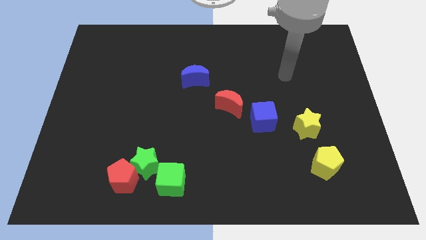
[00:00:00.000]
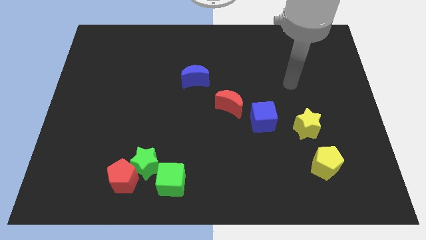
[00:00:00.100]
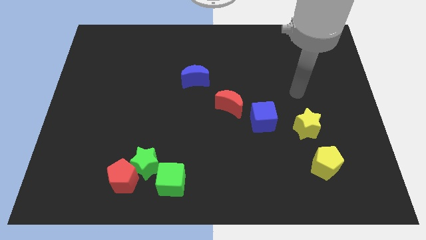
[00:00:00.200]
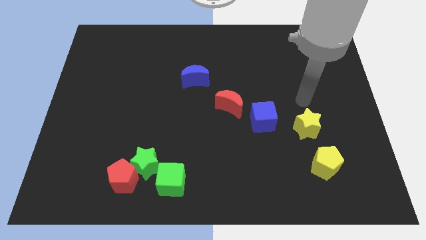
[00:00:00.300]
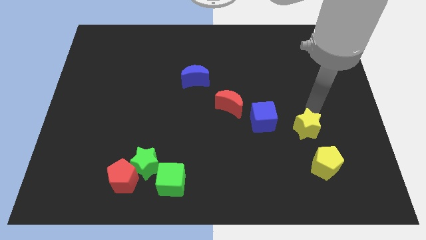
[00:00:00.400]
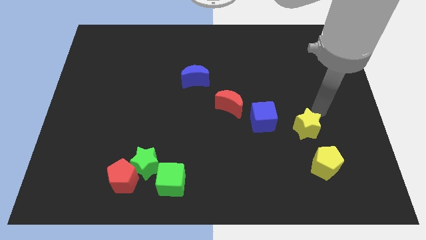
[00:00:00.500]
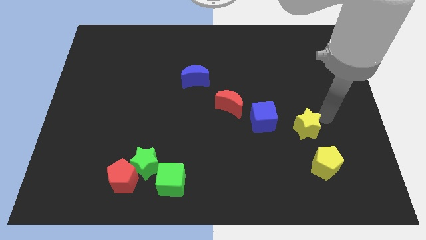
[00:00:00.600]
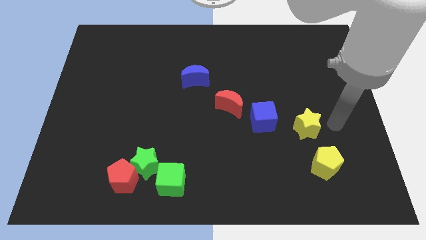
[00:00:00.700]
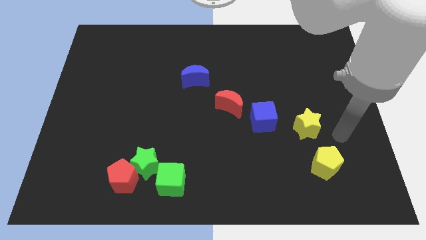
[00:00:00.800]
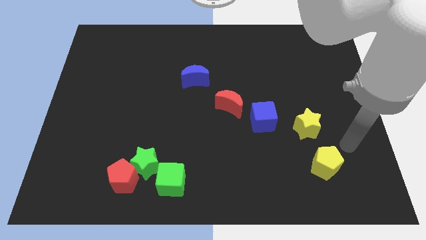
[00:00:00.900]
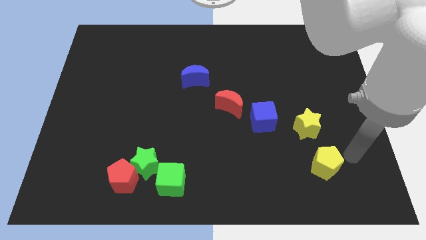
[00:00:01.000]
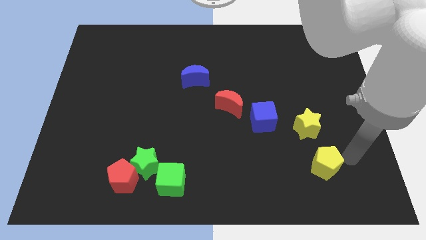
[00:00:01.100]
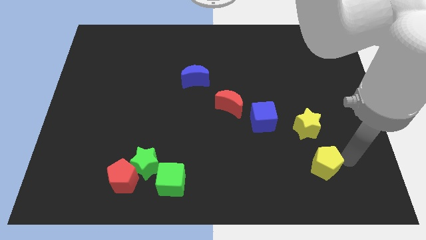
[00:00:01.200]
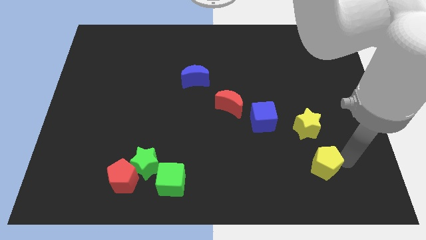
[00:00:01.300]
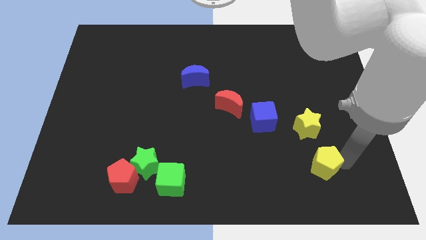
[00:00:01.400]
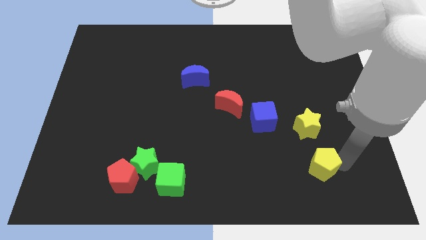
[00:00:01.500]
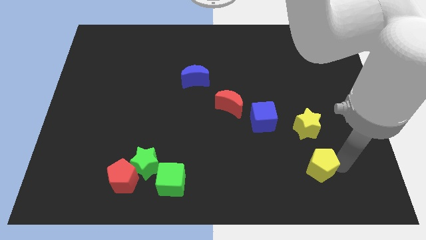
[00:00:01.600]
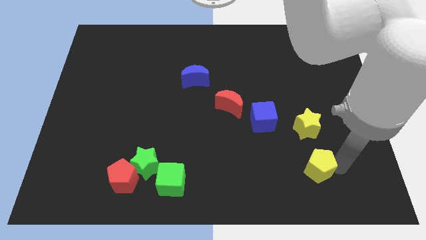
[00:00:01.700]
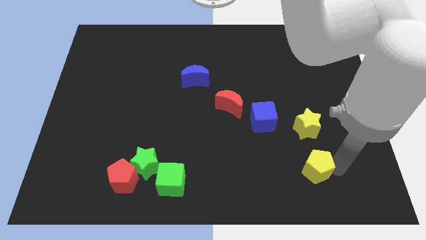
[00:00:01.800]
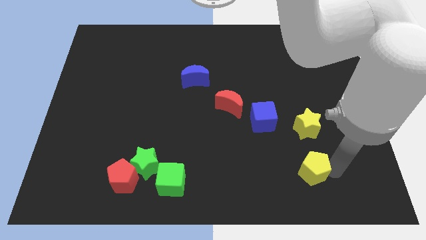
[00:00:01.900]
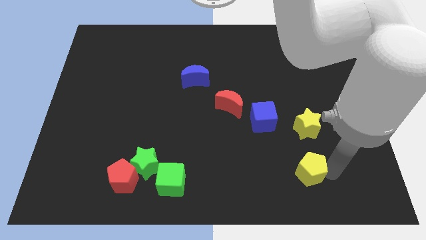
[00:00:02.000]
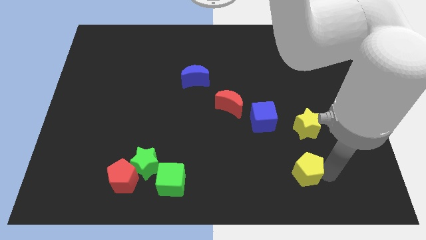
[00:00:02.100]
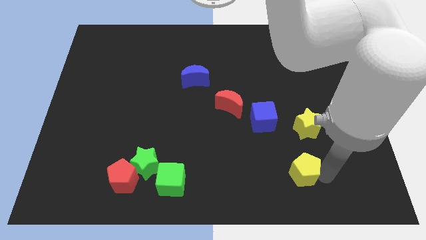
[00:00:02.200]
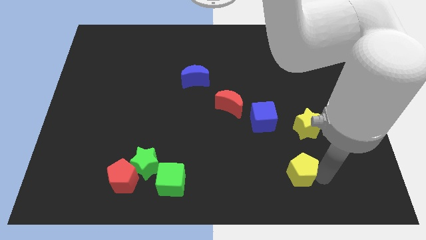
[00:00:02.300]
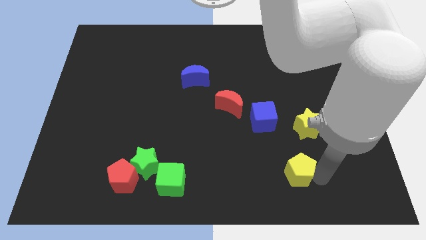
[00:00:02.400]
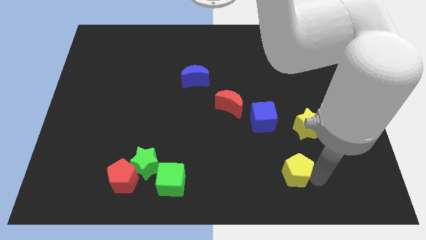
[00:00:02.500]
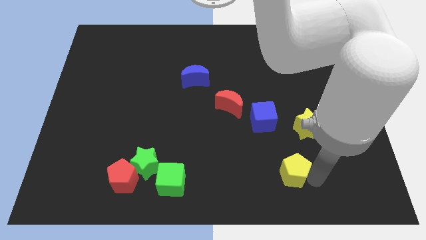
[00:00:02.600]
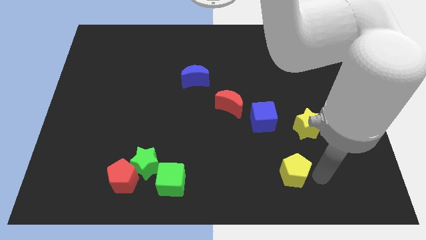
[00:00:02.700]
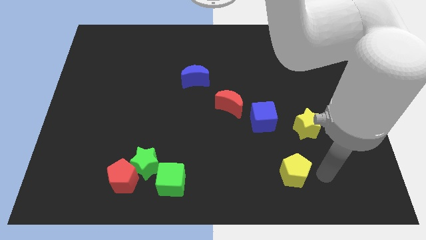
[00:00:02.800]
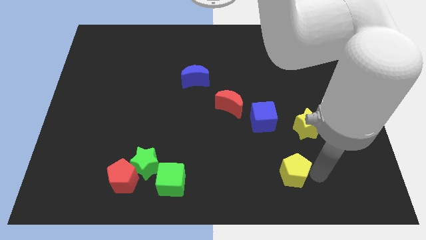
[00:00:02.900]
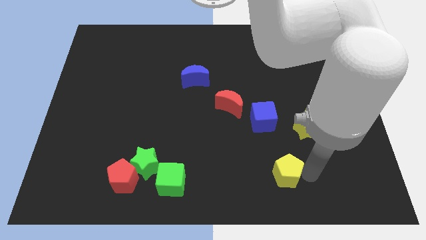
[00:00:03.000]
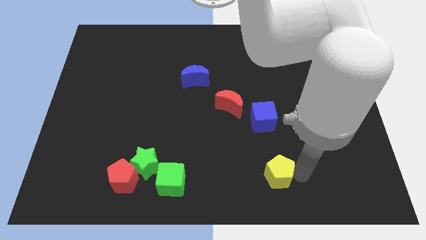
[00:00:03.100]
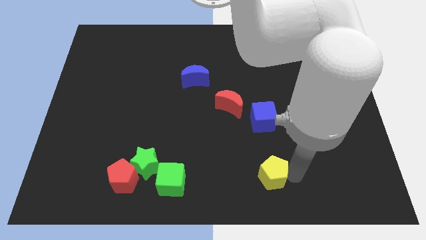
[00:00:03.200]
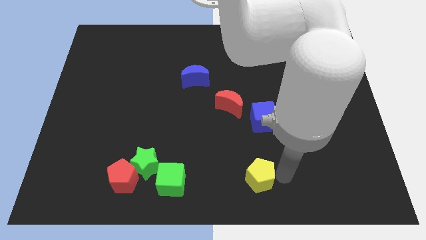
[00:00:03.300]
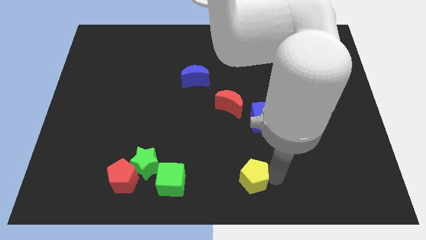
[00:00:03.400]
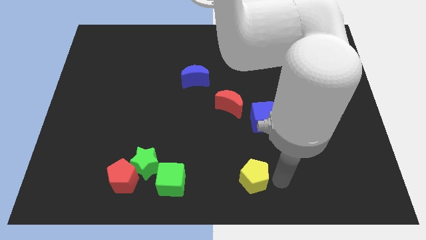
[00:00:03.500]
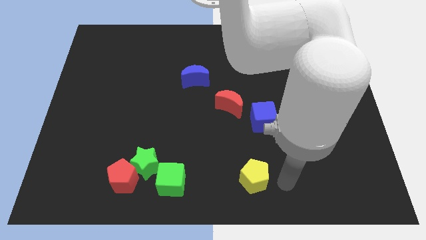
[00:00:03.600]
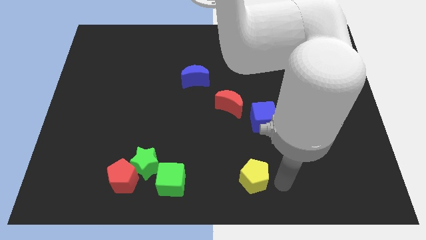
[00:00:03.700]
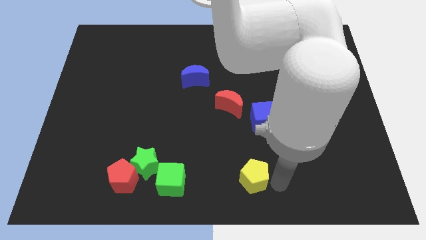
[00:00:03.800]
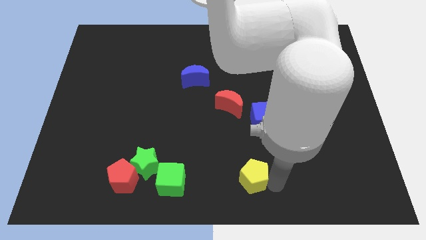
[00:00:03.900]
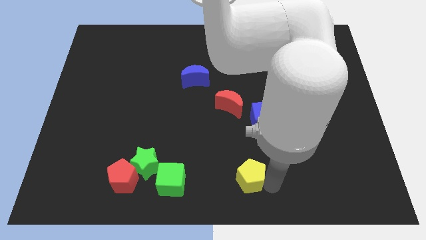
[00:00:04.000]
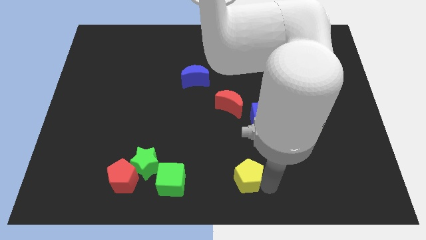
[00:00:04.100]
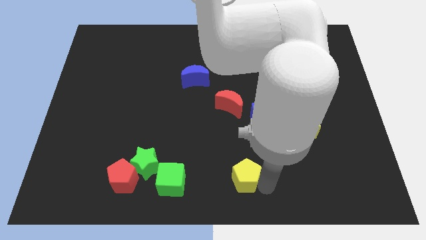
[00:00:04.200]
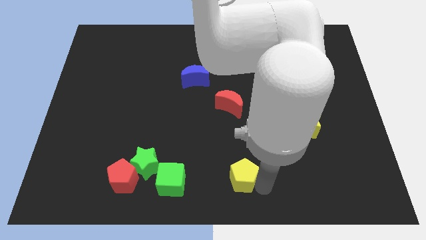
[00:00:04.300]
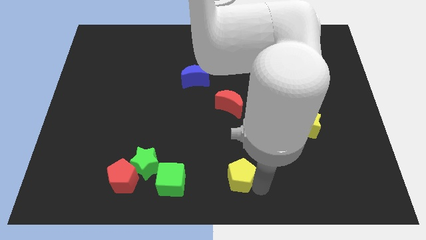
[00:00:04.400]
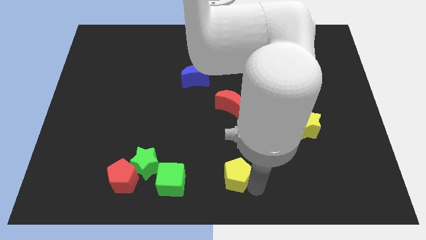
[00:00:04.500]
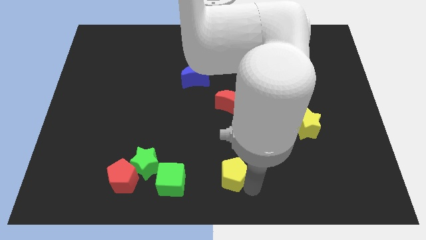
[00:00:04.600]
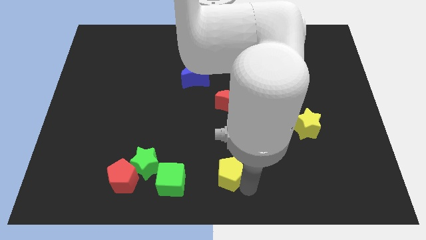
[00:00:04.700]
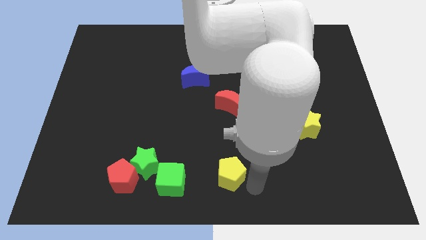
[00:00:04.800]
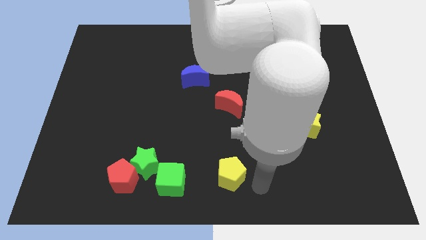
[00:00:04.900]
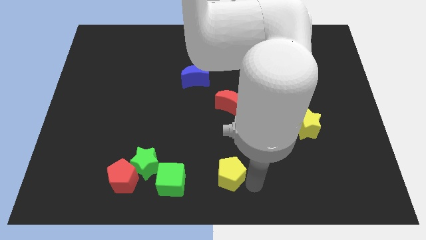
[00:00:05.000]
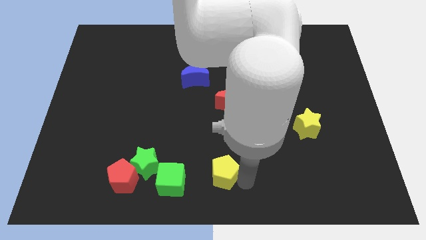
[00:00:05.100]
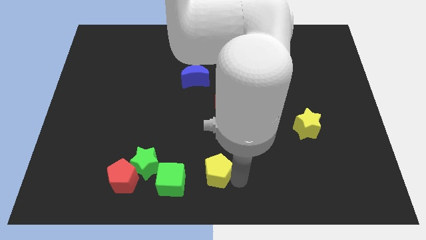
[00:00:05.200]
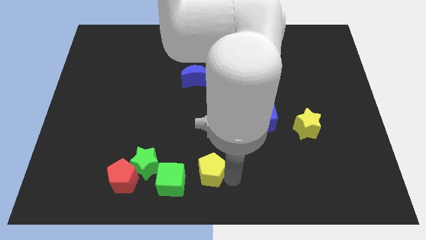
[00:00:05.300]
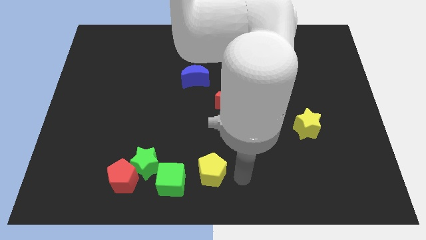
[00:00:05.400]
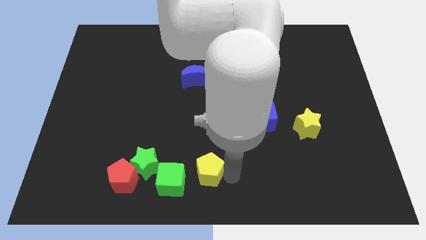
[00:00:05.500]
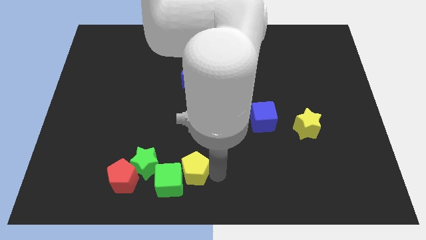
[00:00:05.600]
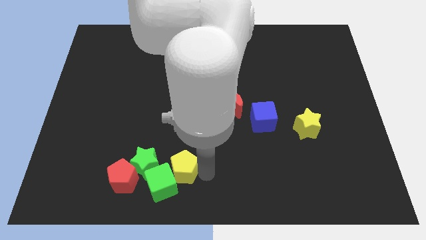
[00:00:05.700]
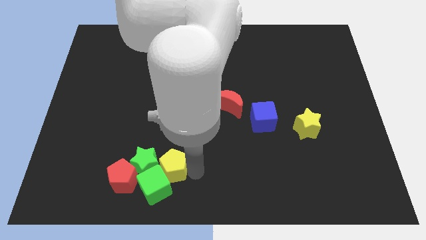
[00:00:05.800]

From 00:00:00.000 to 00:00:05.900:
slide the yellow pentagon next to the green star

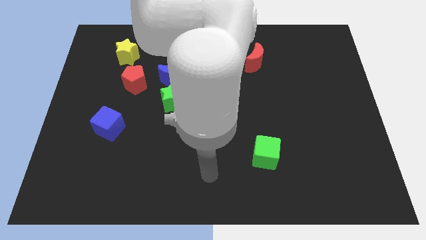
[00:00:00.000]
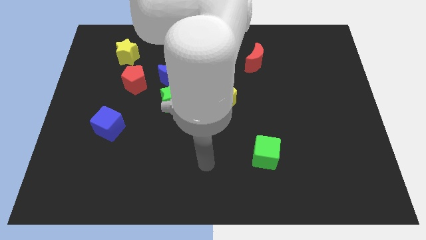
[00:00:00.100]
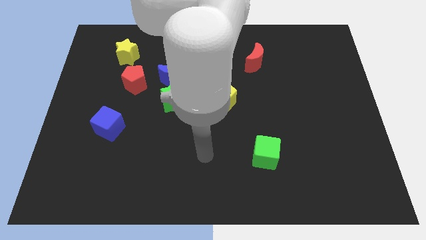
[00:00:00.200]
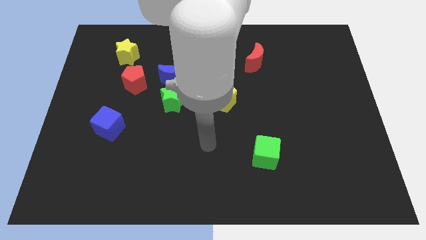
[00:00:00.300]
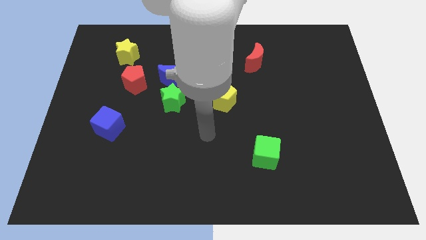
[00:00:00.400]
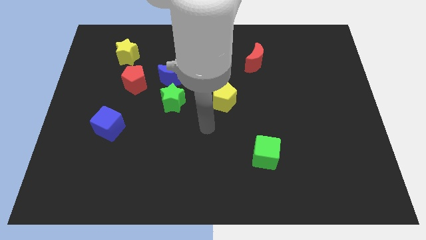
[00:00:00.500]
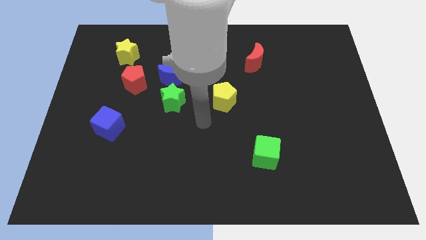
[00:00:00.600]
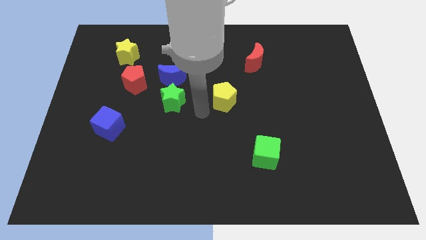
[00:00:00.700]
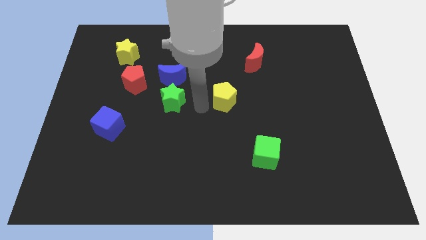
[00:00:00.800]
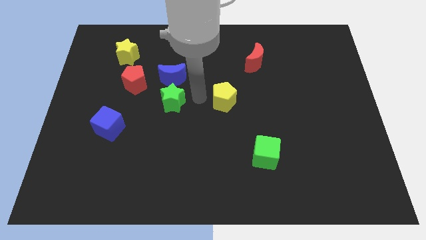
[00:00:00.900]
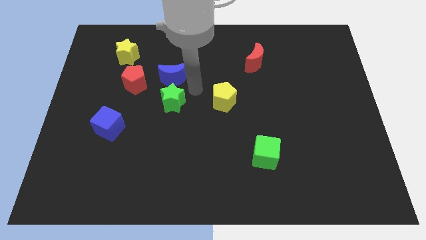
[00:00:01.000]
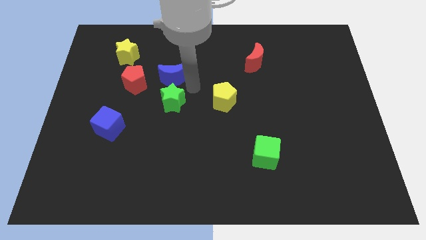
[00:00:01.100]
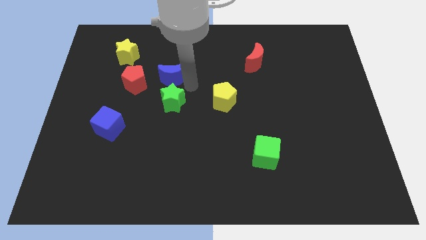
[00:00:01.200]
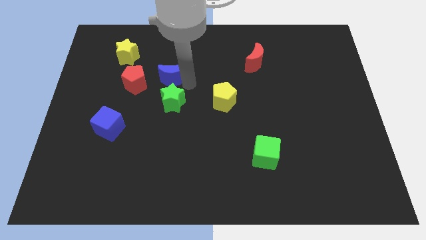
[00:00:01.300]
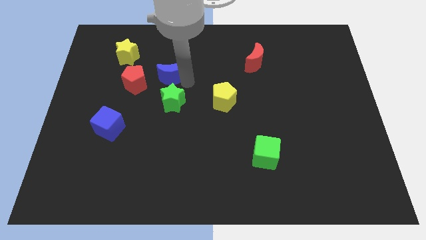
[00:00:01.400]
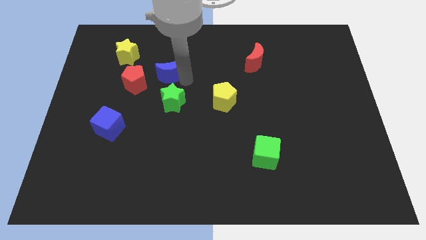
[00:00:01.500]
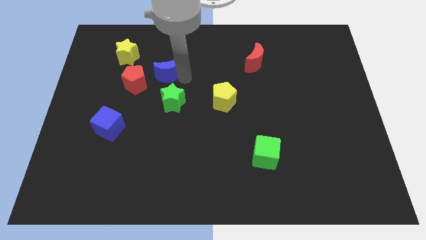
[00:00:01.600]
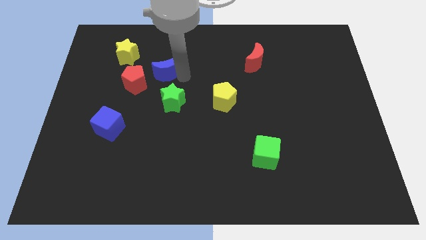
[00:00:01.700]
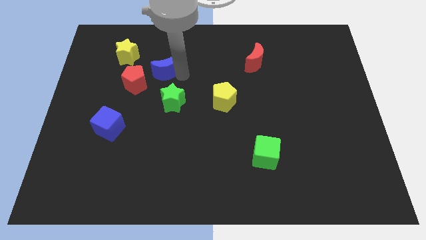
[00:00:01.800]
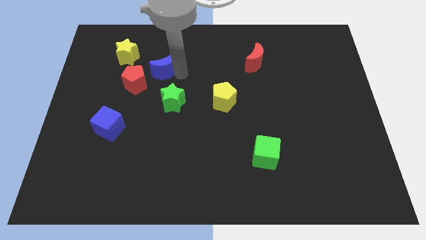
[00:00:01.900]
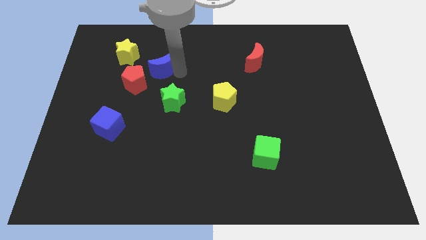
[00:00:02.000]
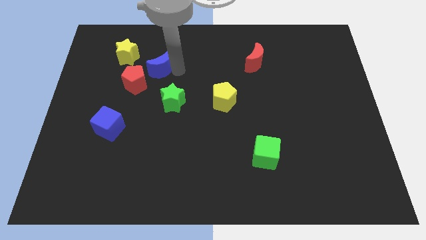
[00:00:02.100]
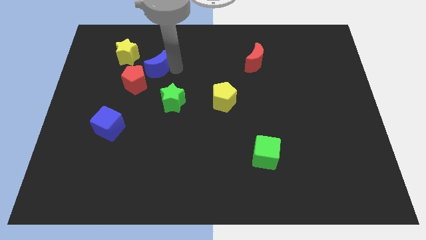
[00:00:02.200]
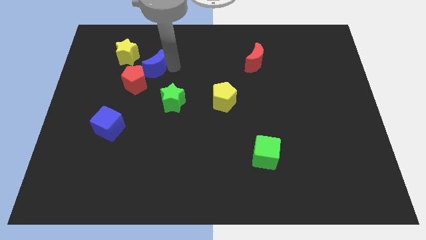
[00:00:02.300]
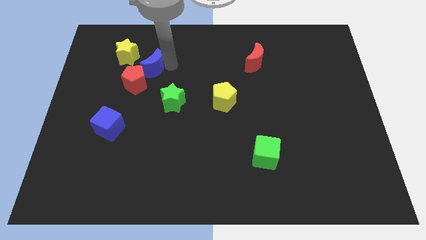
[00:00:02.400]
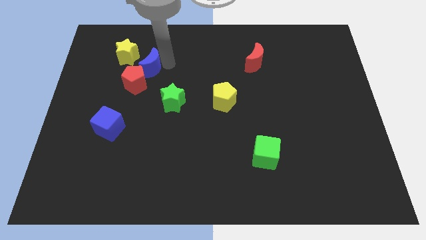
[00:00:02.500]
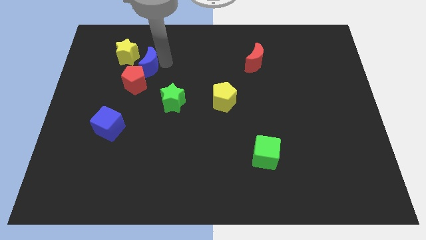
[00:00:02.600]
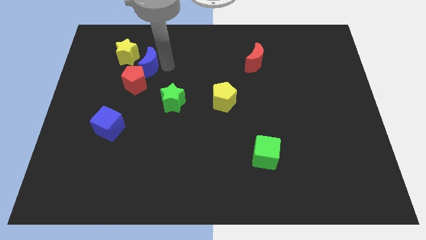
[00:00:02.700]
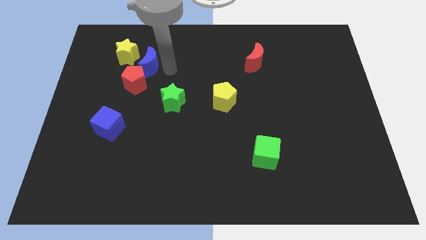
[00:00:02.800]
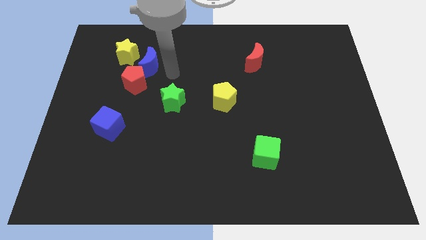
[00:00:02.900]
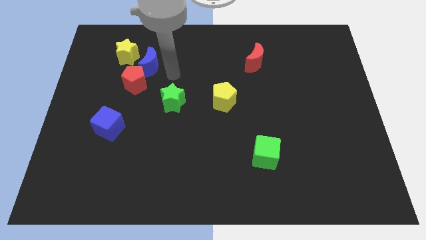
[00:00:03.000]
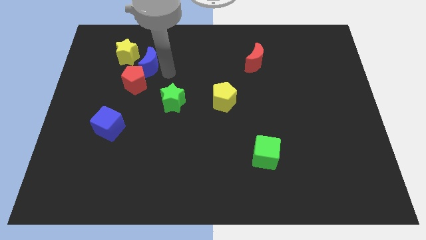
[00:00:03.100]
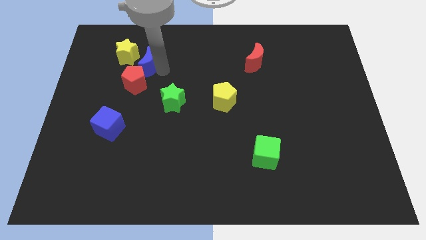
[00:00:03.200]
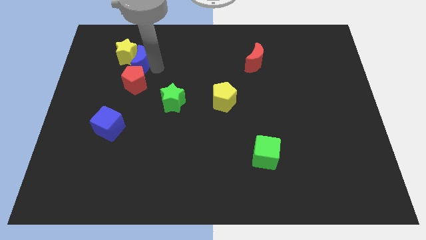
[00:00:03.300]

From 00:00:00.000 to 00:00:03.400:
put the blue moon to the yellow star
